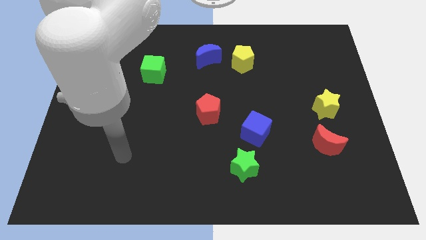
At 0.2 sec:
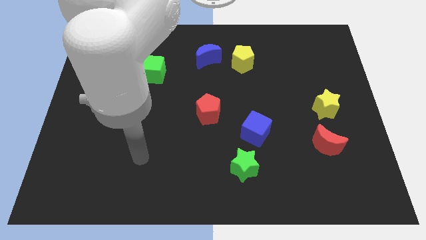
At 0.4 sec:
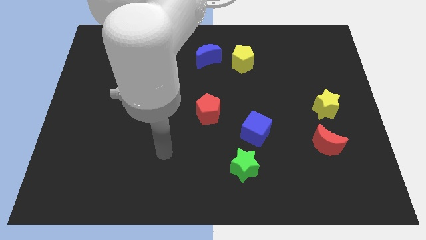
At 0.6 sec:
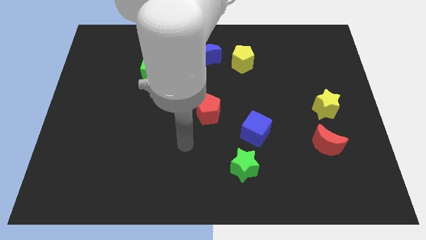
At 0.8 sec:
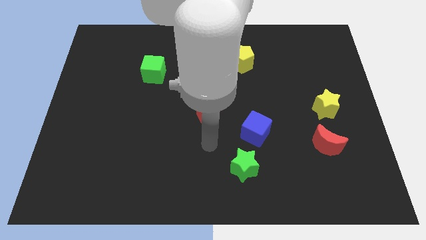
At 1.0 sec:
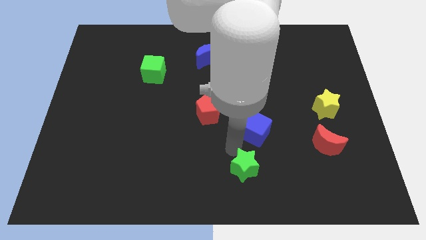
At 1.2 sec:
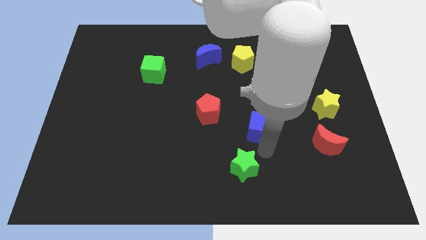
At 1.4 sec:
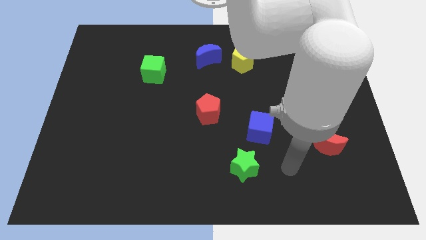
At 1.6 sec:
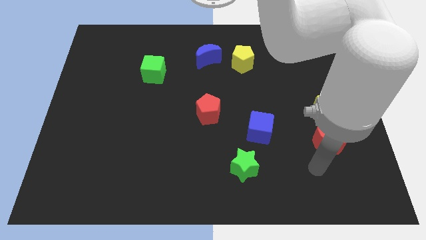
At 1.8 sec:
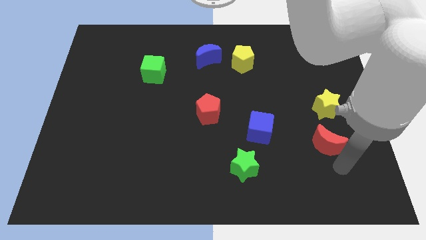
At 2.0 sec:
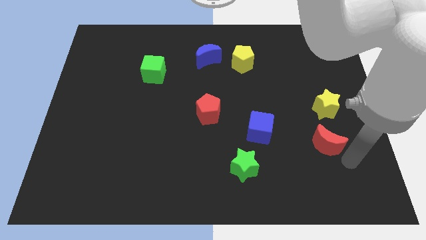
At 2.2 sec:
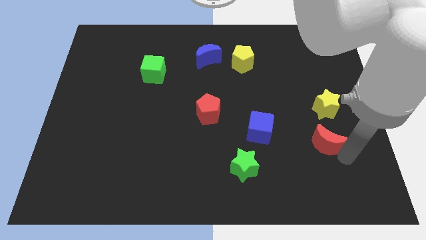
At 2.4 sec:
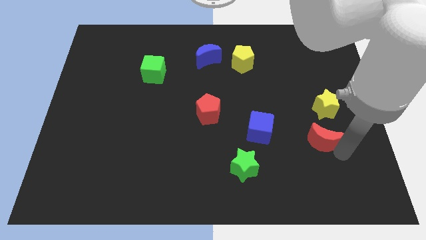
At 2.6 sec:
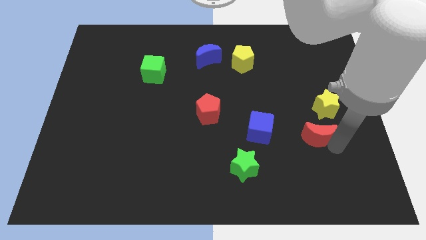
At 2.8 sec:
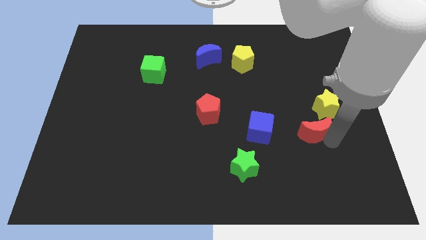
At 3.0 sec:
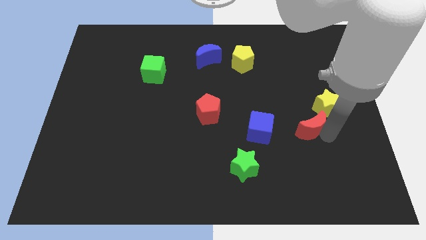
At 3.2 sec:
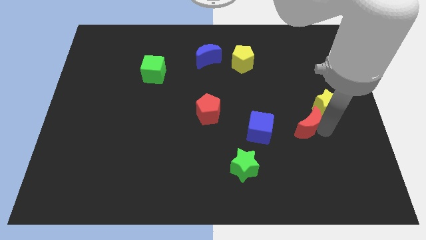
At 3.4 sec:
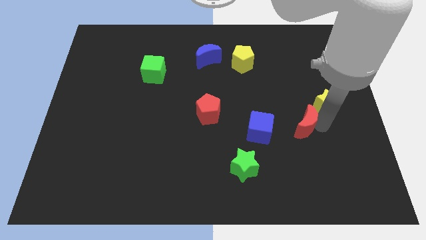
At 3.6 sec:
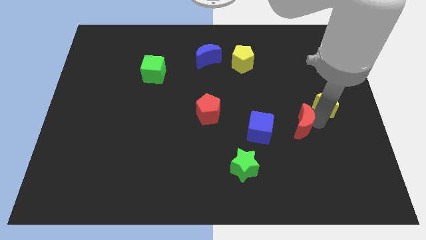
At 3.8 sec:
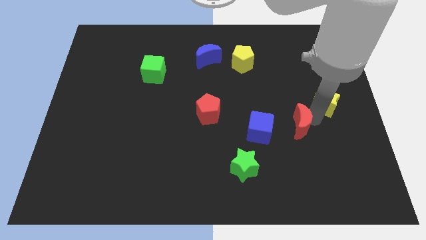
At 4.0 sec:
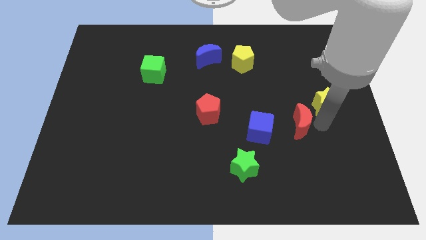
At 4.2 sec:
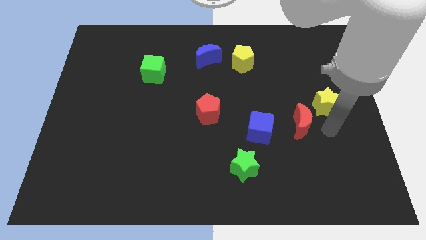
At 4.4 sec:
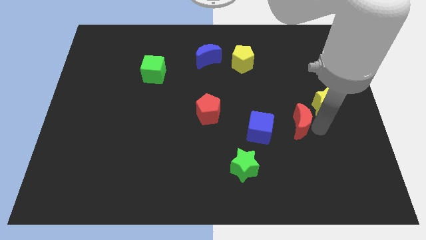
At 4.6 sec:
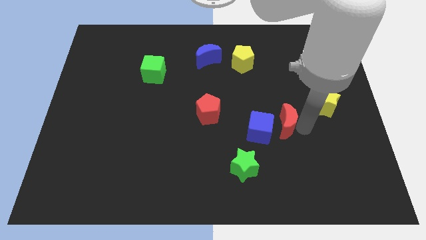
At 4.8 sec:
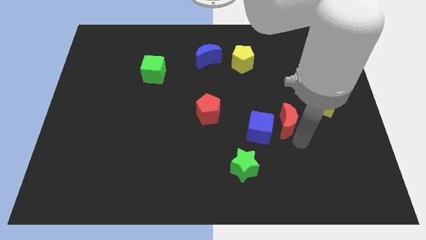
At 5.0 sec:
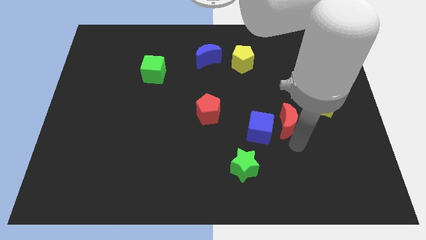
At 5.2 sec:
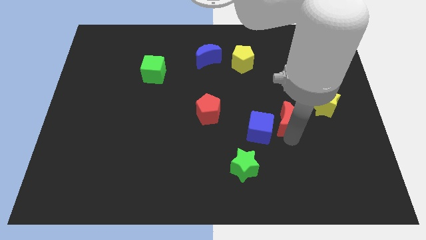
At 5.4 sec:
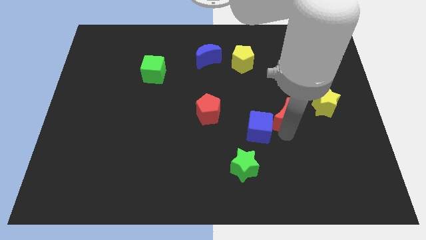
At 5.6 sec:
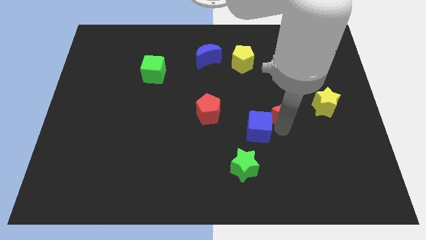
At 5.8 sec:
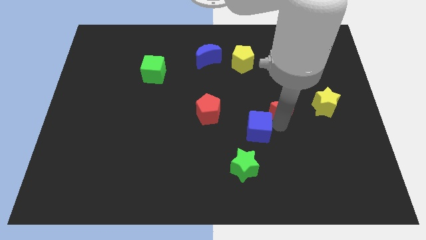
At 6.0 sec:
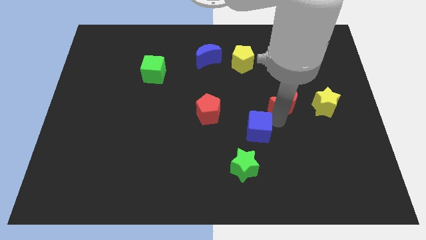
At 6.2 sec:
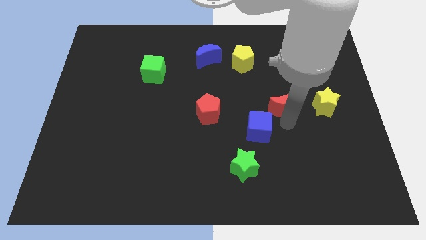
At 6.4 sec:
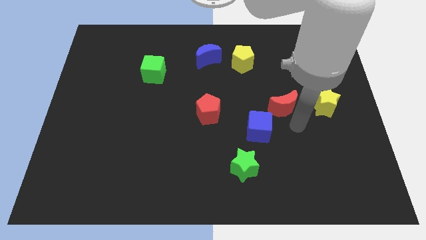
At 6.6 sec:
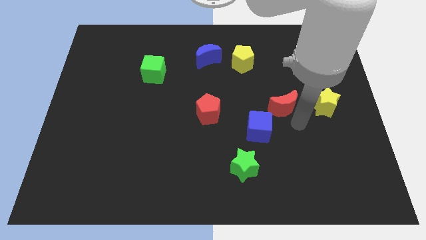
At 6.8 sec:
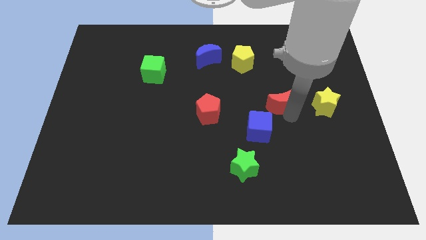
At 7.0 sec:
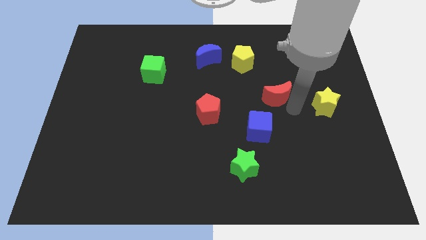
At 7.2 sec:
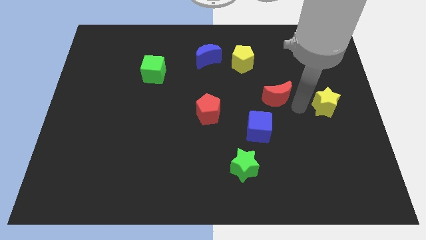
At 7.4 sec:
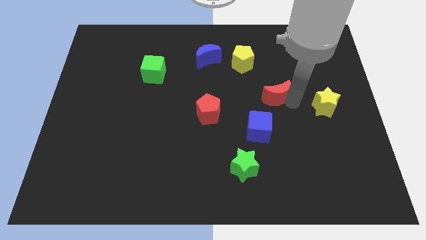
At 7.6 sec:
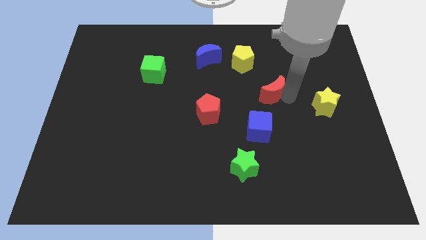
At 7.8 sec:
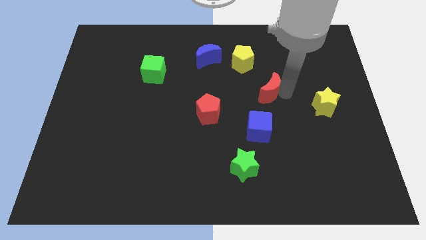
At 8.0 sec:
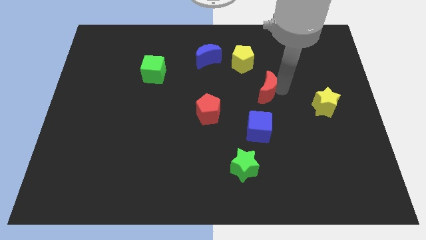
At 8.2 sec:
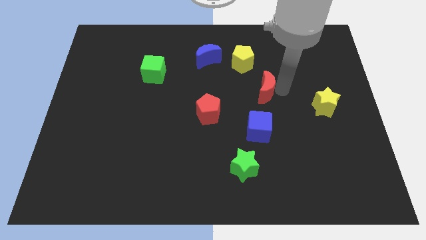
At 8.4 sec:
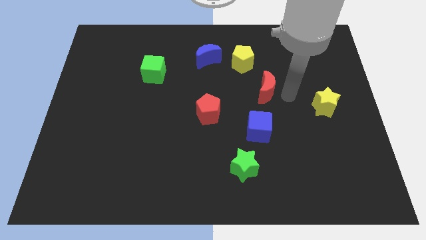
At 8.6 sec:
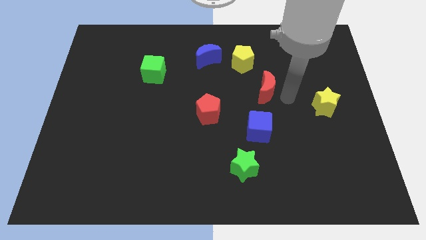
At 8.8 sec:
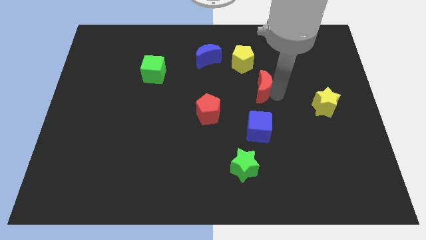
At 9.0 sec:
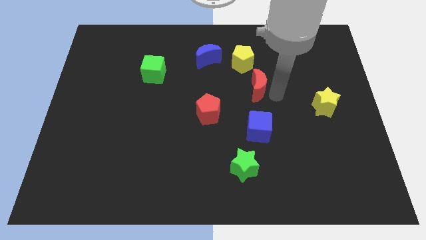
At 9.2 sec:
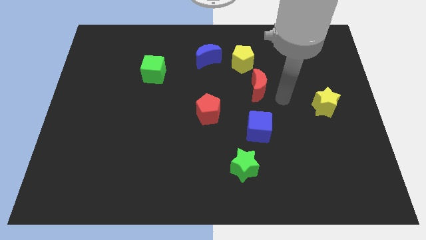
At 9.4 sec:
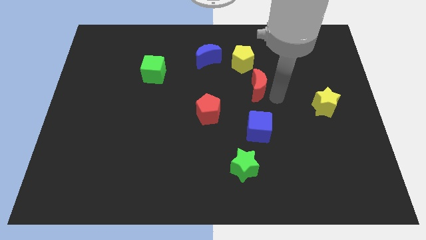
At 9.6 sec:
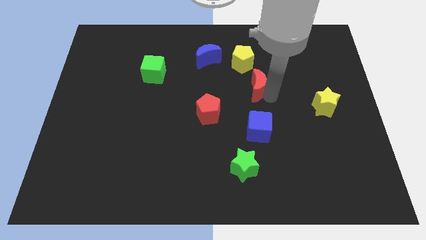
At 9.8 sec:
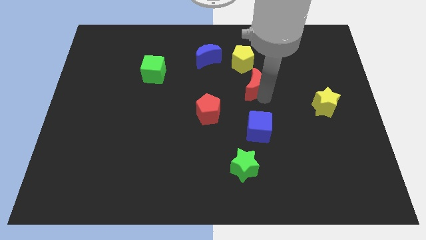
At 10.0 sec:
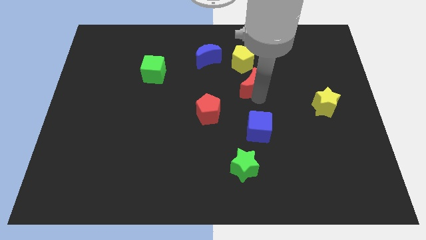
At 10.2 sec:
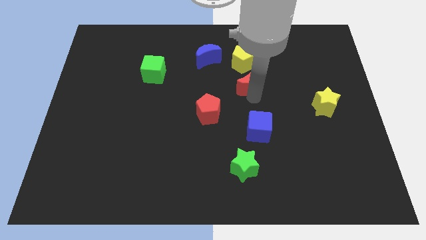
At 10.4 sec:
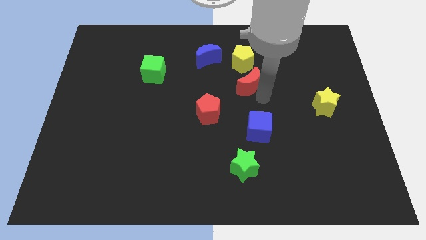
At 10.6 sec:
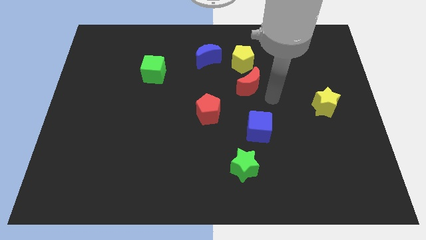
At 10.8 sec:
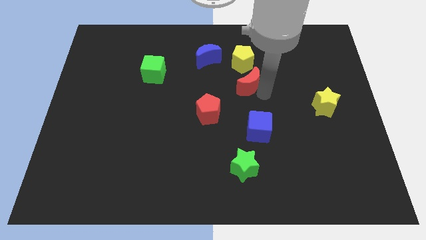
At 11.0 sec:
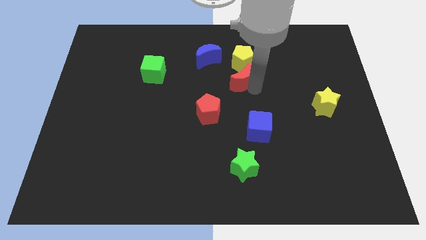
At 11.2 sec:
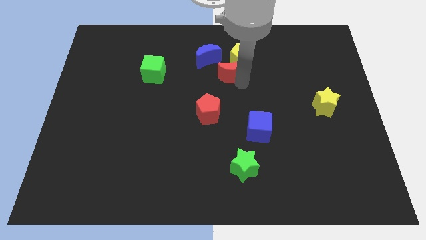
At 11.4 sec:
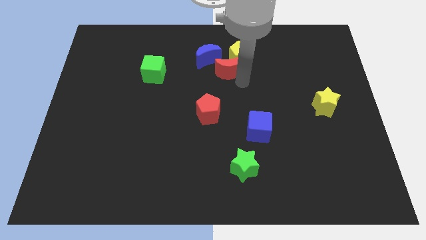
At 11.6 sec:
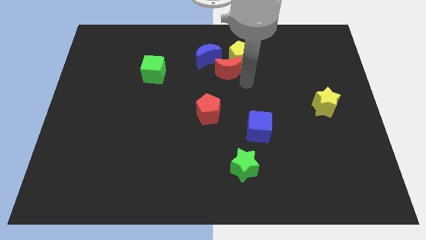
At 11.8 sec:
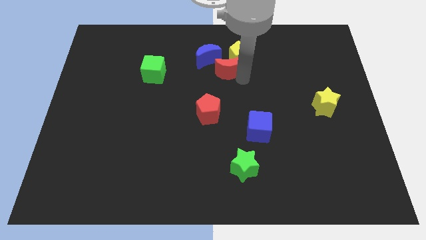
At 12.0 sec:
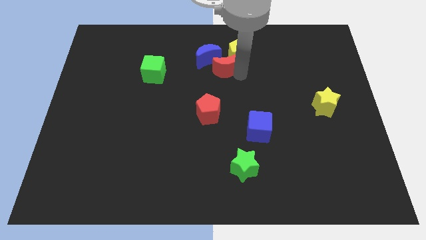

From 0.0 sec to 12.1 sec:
move the red moon close to the blue moon

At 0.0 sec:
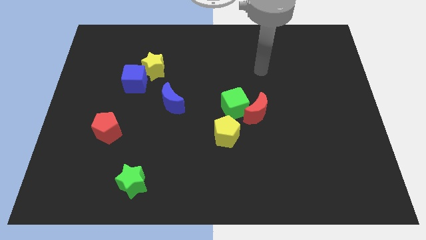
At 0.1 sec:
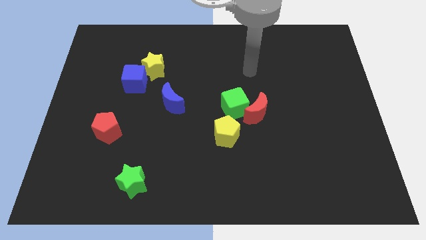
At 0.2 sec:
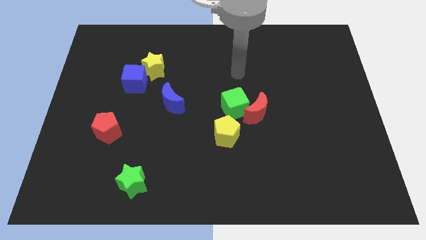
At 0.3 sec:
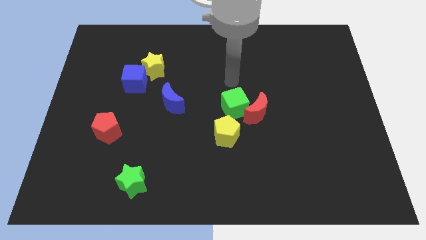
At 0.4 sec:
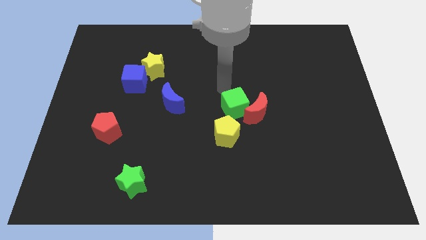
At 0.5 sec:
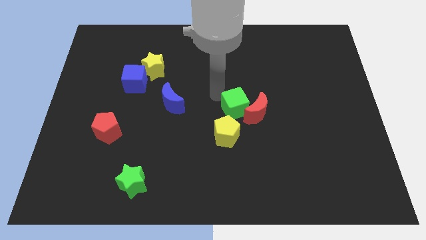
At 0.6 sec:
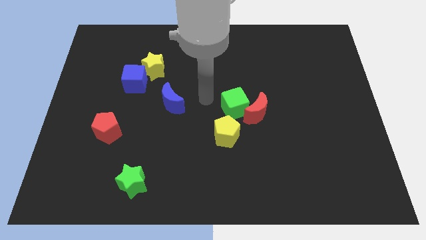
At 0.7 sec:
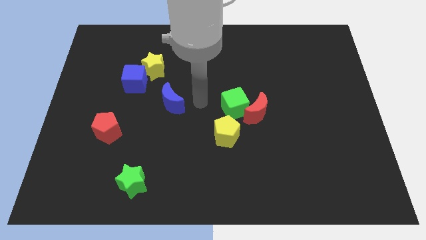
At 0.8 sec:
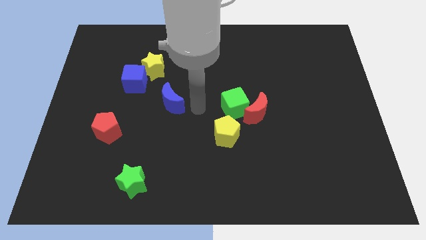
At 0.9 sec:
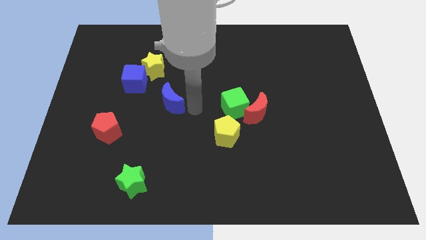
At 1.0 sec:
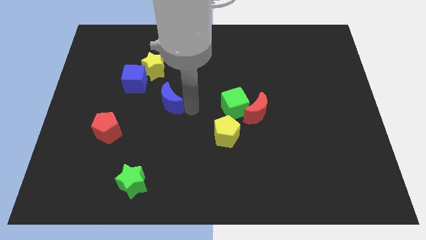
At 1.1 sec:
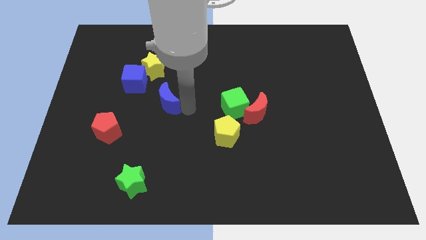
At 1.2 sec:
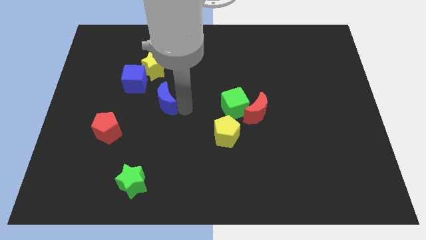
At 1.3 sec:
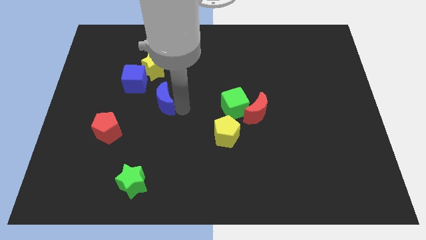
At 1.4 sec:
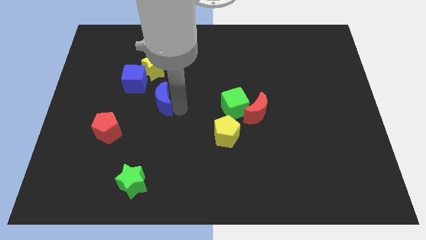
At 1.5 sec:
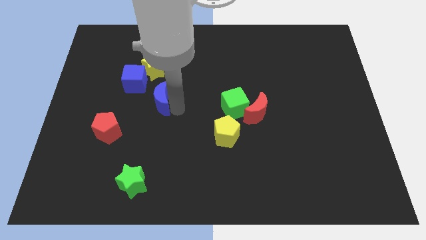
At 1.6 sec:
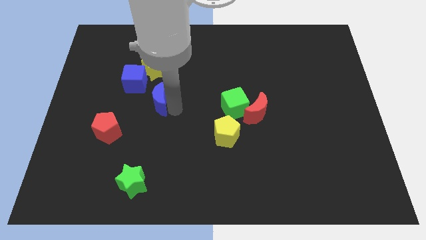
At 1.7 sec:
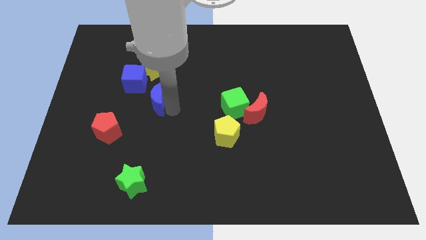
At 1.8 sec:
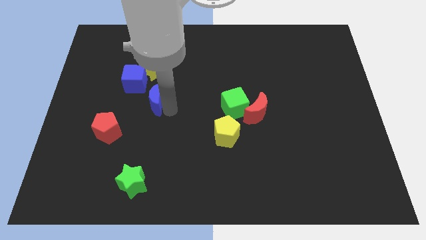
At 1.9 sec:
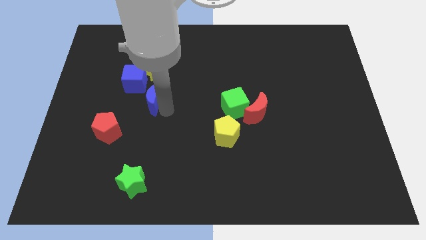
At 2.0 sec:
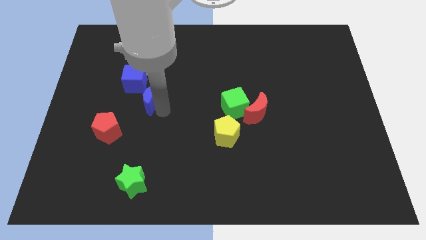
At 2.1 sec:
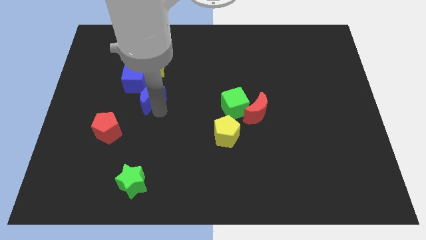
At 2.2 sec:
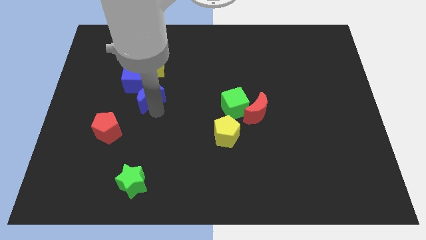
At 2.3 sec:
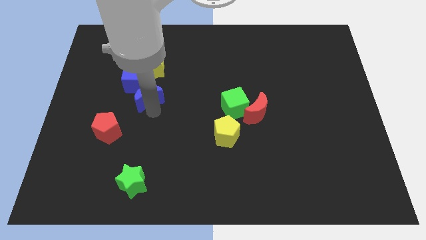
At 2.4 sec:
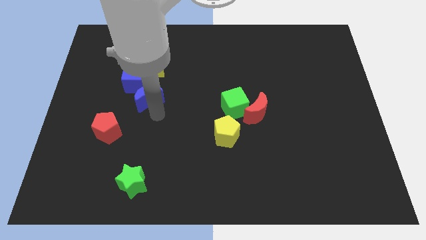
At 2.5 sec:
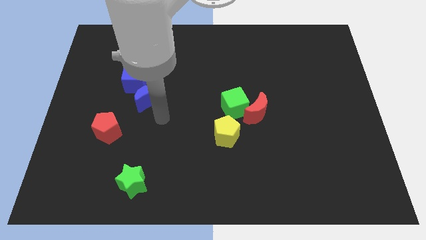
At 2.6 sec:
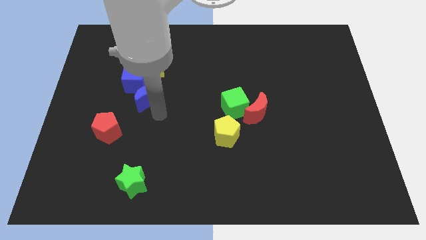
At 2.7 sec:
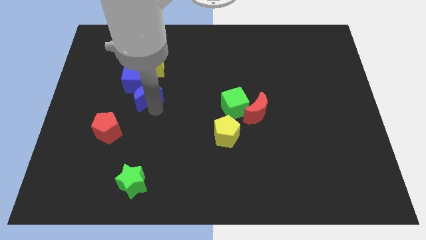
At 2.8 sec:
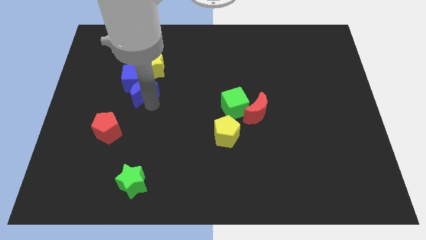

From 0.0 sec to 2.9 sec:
move the blue moon towards the blue cube
